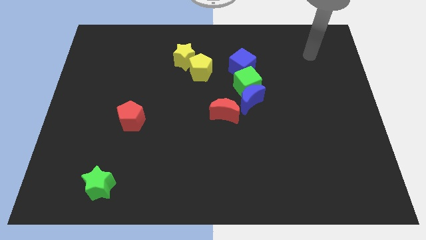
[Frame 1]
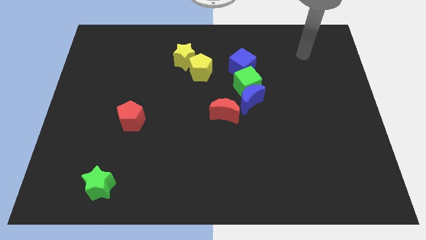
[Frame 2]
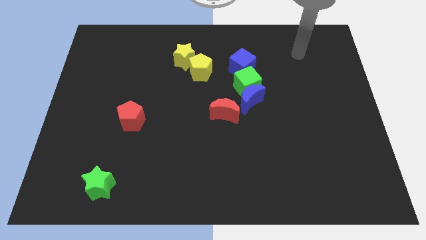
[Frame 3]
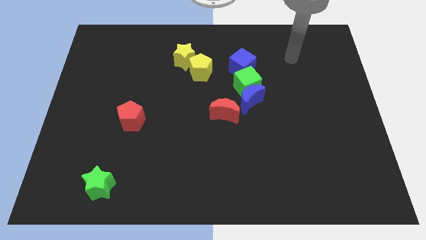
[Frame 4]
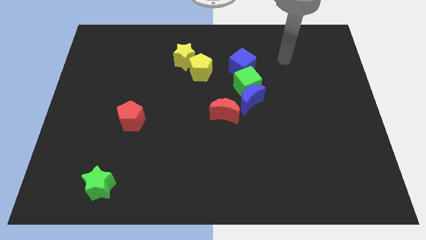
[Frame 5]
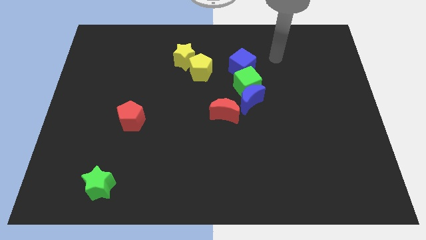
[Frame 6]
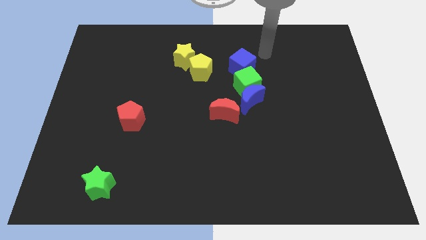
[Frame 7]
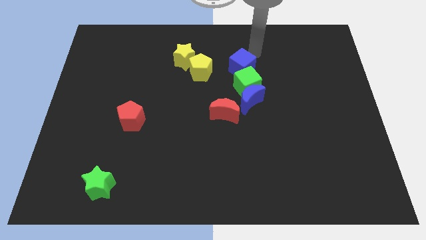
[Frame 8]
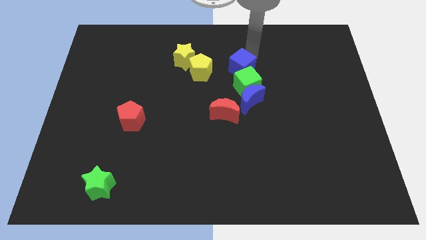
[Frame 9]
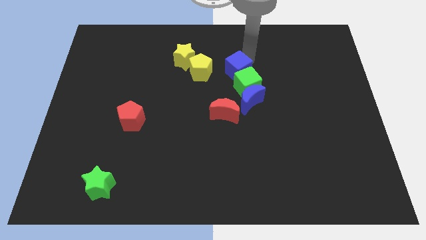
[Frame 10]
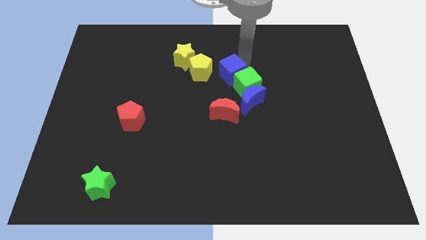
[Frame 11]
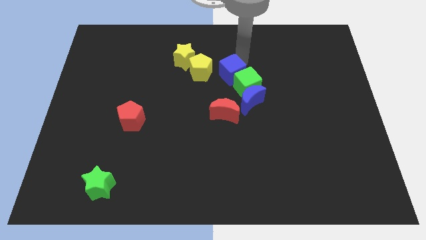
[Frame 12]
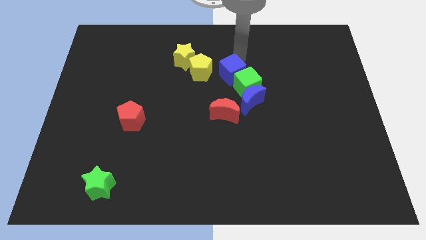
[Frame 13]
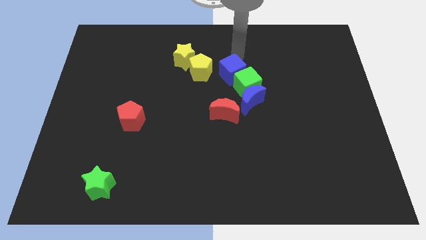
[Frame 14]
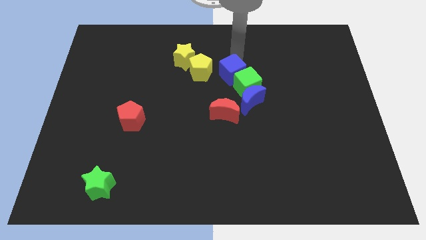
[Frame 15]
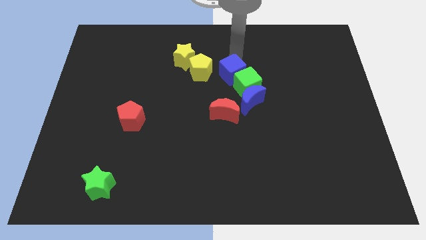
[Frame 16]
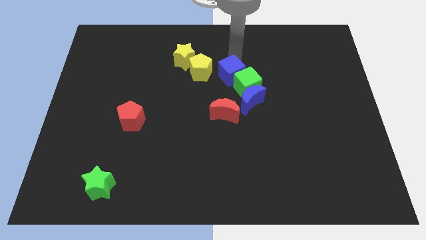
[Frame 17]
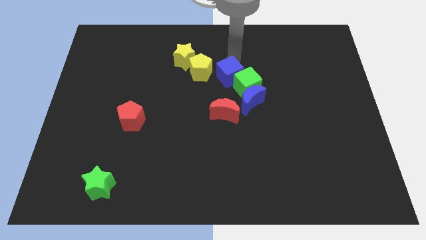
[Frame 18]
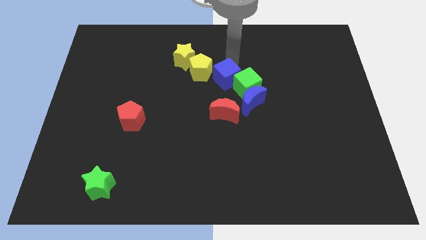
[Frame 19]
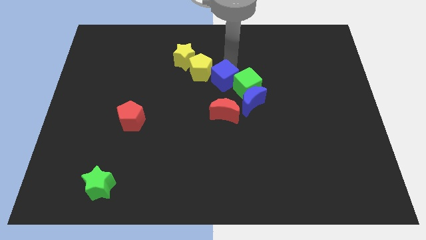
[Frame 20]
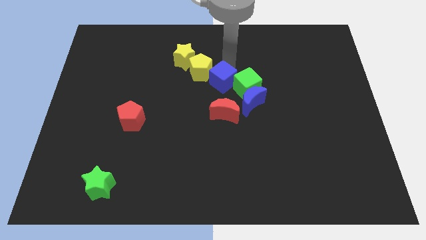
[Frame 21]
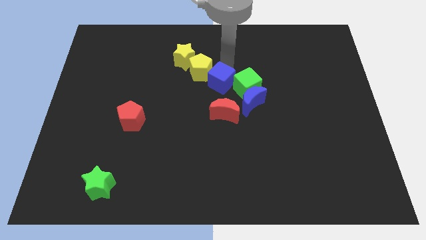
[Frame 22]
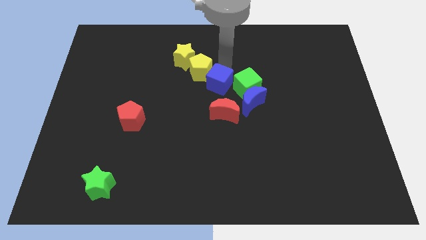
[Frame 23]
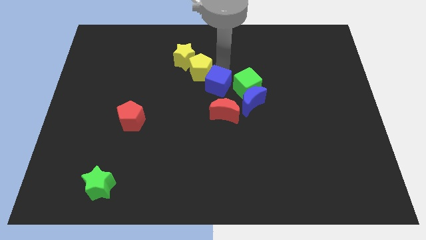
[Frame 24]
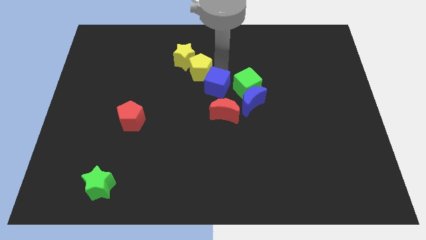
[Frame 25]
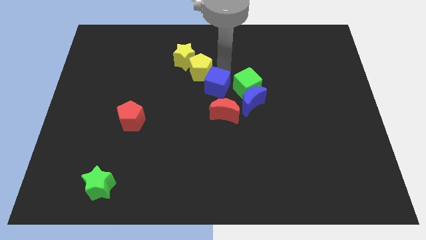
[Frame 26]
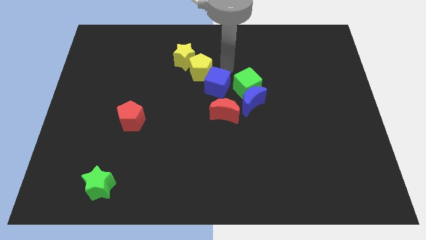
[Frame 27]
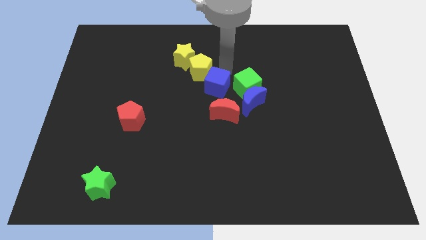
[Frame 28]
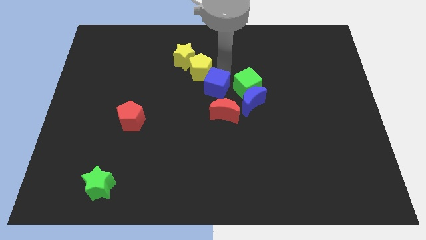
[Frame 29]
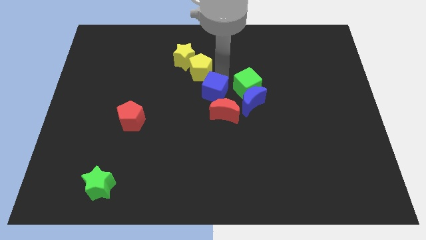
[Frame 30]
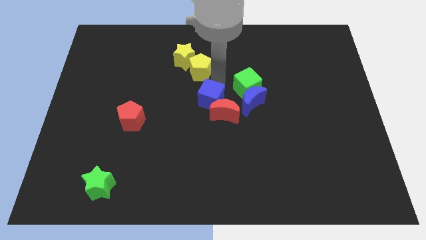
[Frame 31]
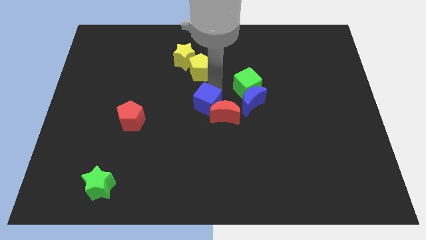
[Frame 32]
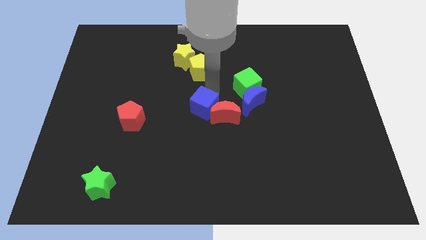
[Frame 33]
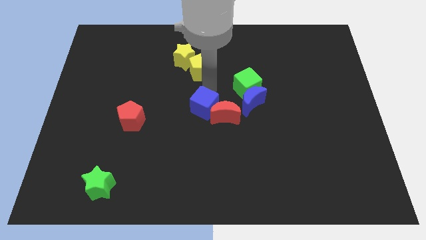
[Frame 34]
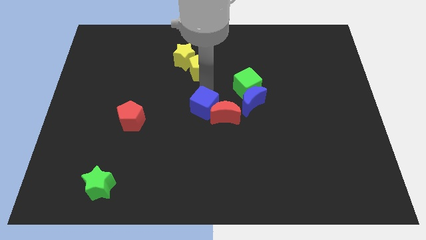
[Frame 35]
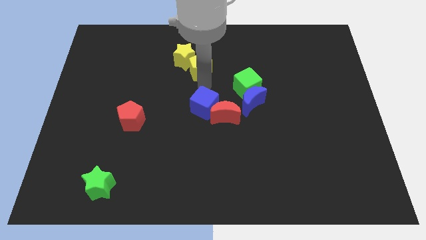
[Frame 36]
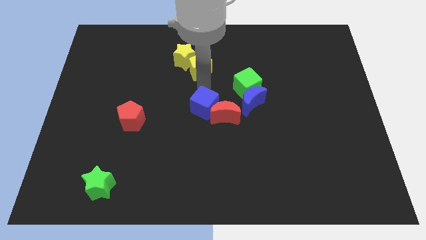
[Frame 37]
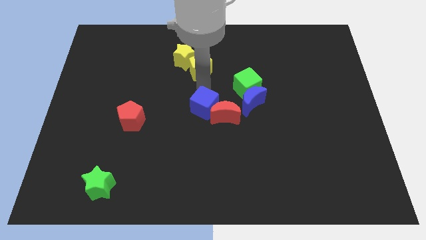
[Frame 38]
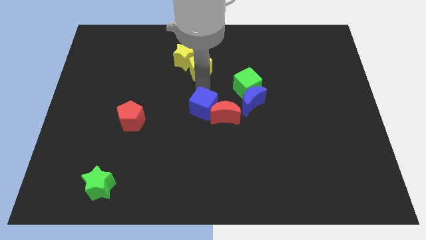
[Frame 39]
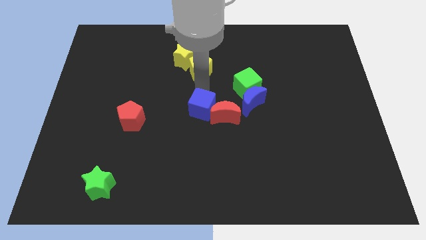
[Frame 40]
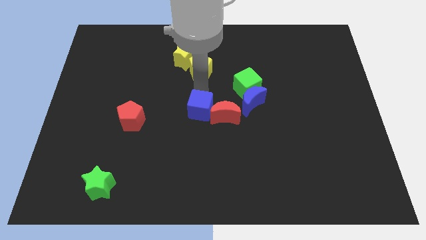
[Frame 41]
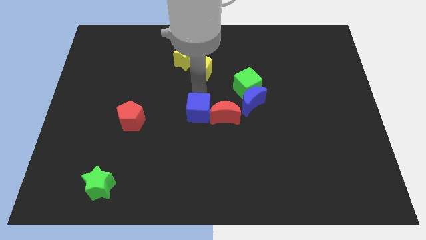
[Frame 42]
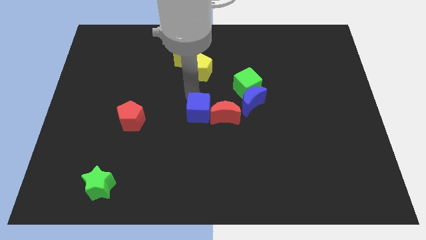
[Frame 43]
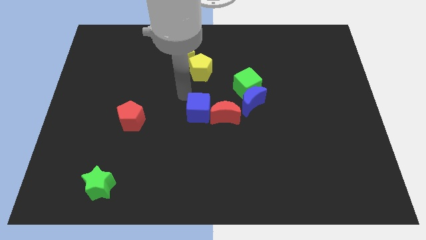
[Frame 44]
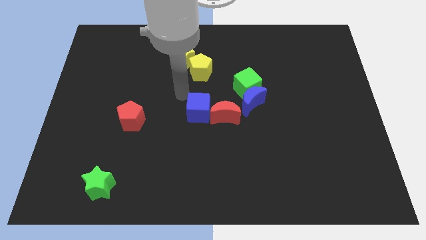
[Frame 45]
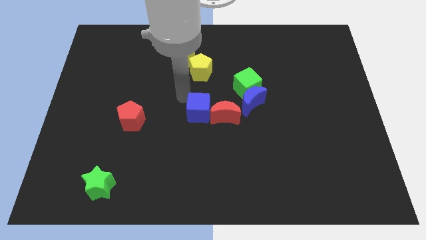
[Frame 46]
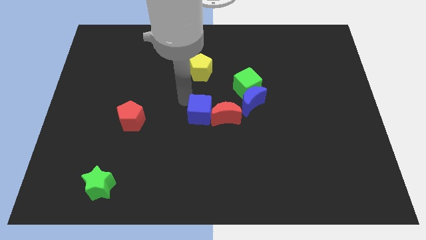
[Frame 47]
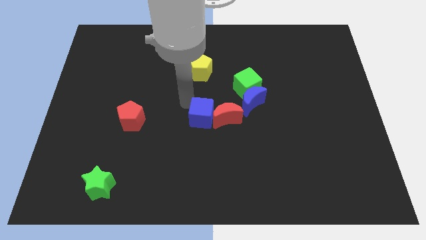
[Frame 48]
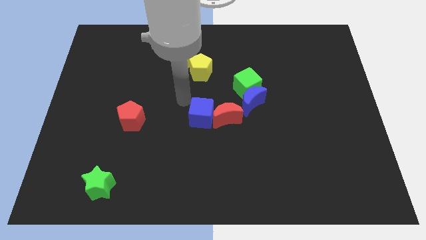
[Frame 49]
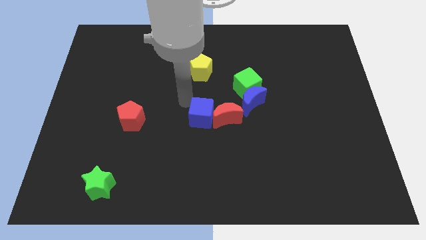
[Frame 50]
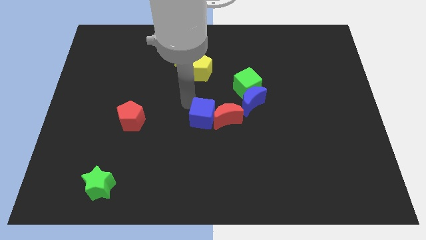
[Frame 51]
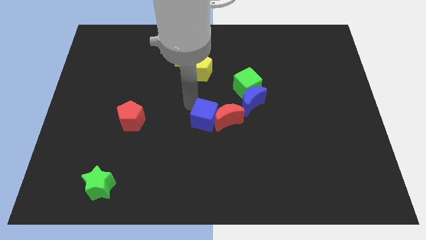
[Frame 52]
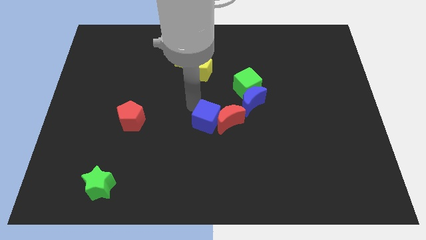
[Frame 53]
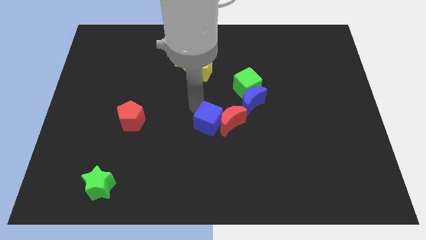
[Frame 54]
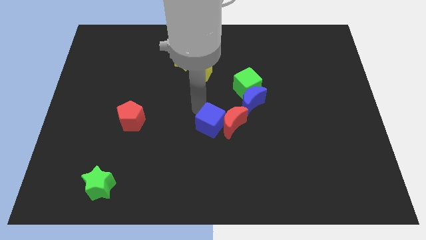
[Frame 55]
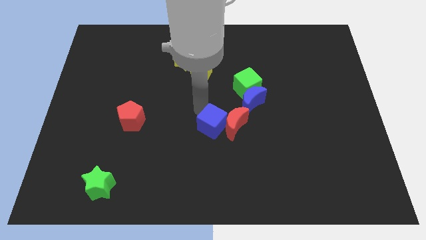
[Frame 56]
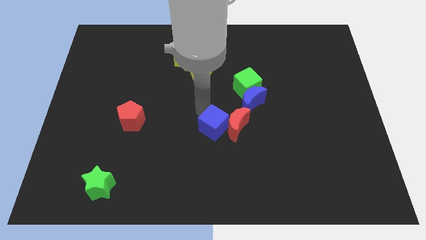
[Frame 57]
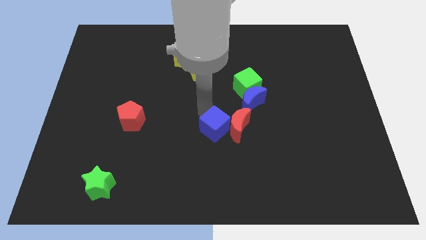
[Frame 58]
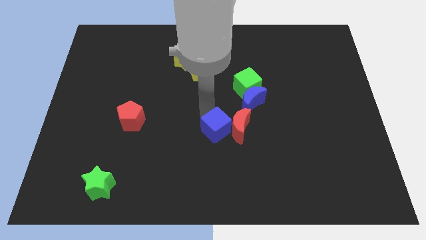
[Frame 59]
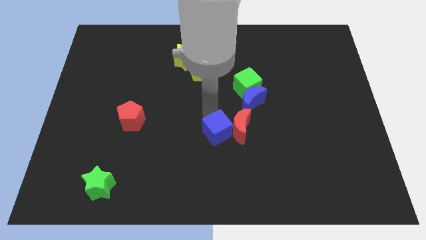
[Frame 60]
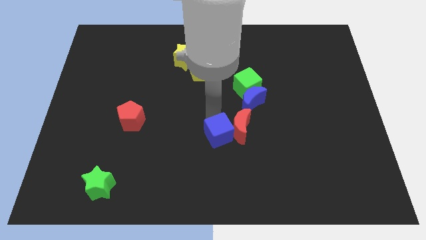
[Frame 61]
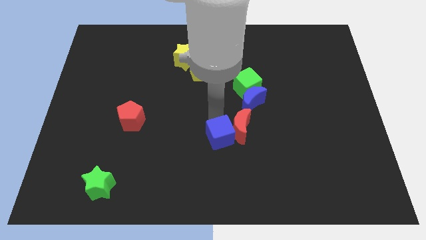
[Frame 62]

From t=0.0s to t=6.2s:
slide the blue cube downwards

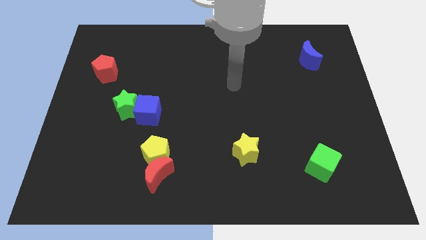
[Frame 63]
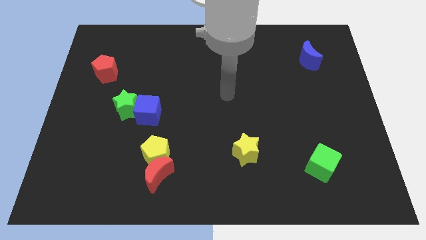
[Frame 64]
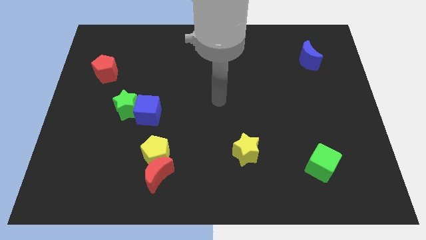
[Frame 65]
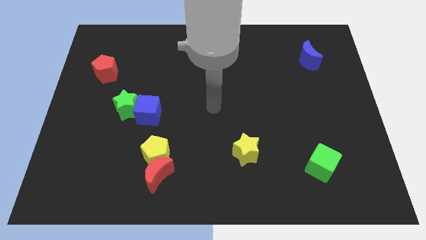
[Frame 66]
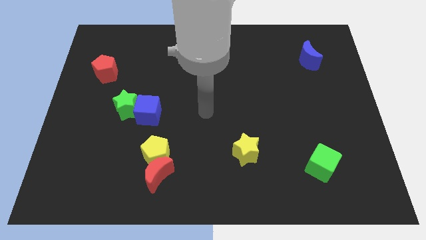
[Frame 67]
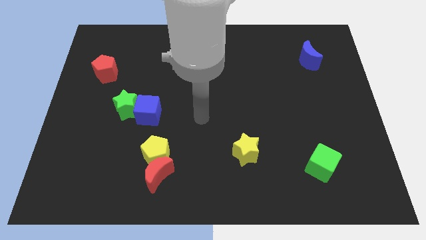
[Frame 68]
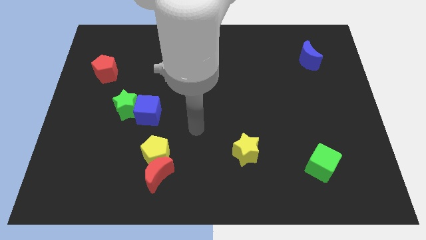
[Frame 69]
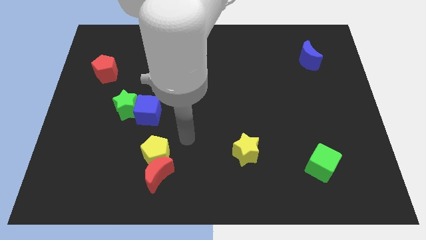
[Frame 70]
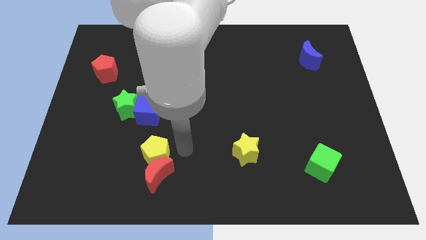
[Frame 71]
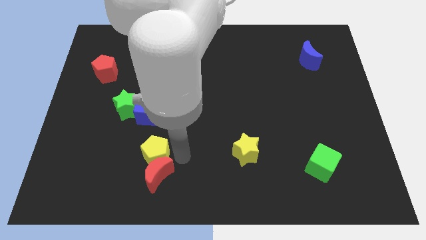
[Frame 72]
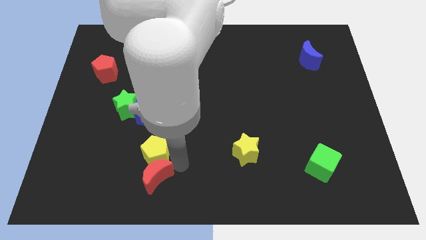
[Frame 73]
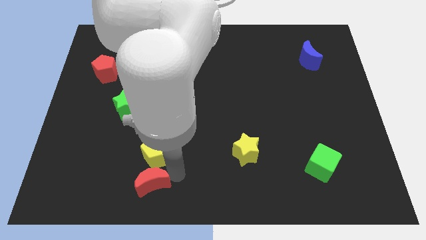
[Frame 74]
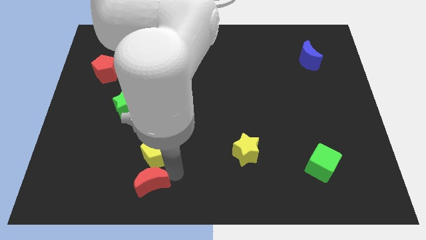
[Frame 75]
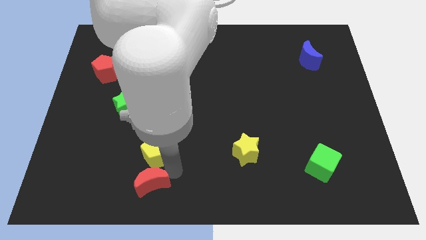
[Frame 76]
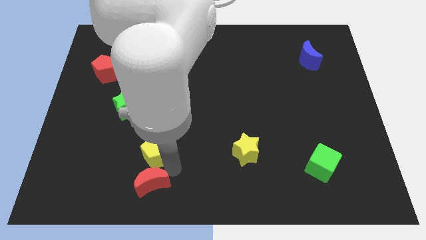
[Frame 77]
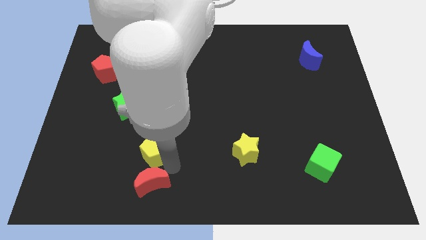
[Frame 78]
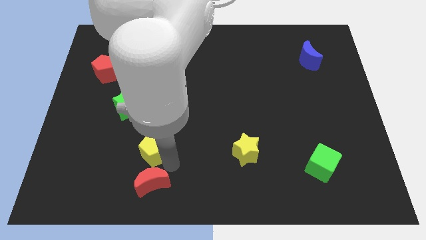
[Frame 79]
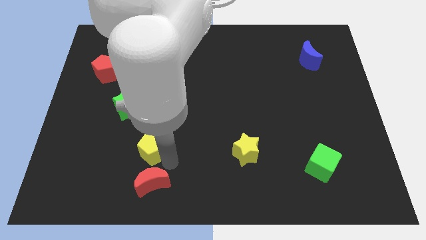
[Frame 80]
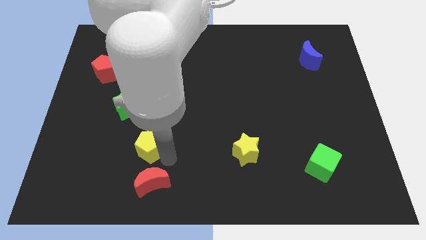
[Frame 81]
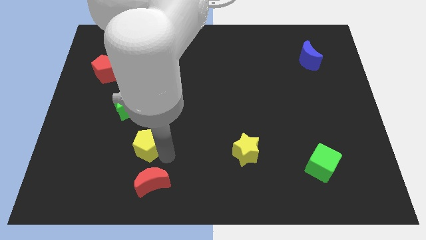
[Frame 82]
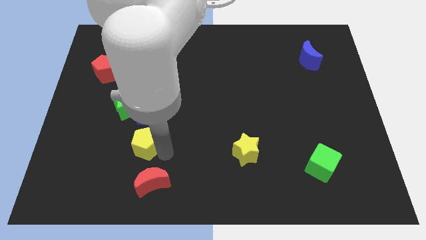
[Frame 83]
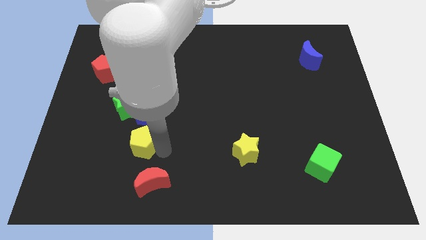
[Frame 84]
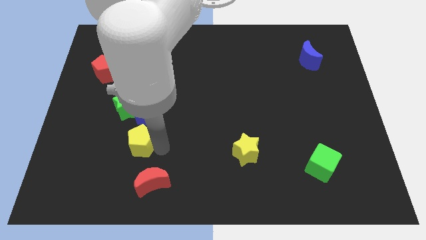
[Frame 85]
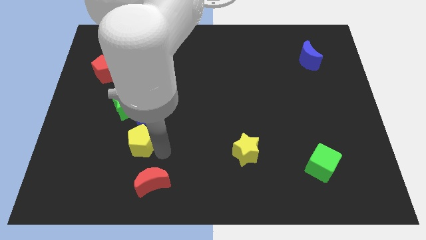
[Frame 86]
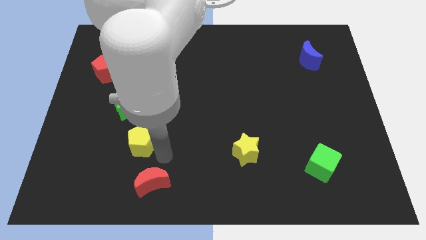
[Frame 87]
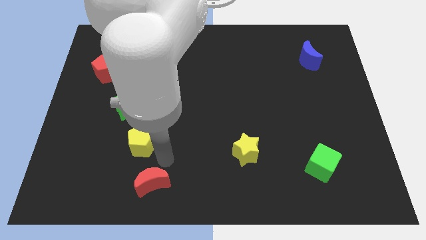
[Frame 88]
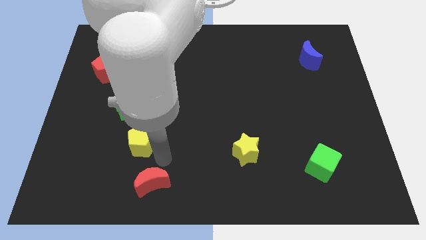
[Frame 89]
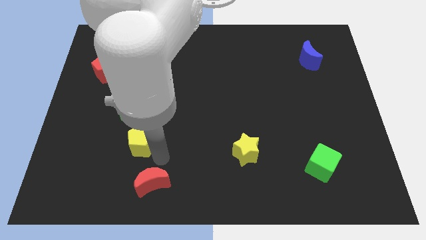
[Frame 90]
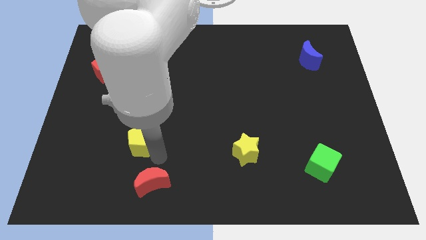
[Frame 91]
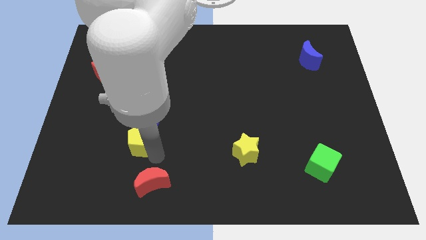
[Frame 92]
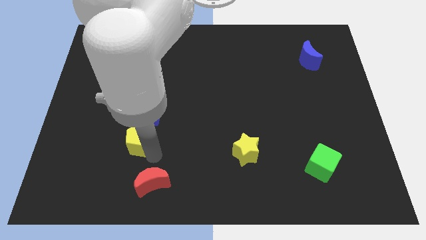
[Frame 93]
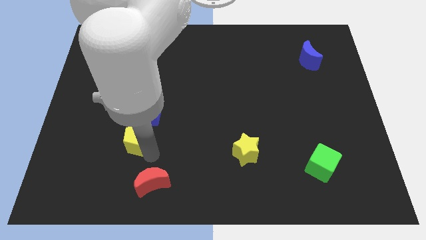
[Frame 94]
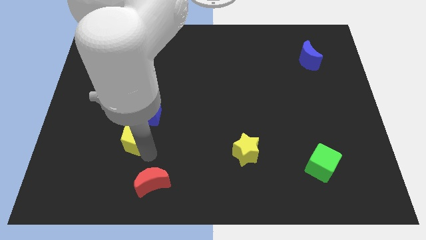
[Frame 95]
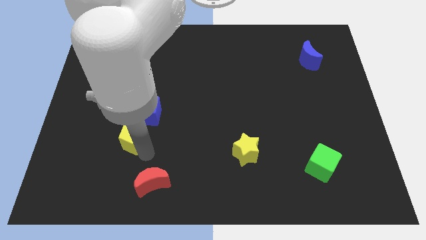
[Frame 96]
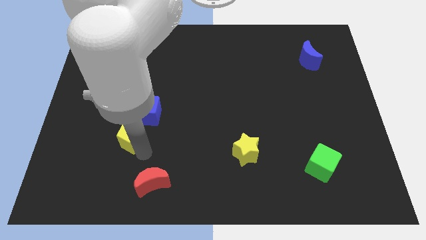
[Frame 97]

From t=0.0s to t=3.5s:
slide the yellow pentagon diagonally up and left slightly
